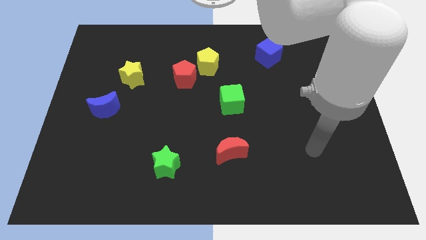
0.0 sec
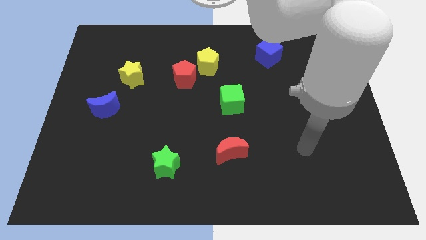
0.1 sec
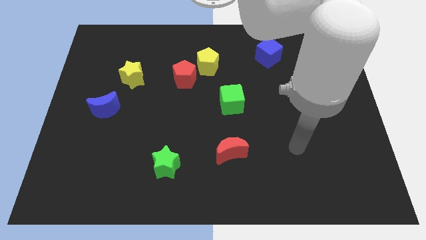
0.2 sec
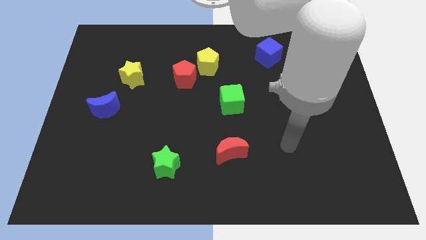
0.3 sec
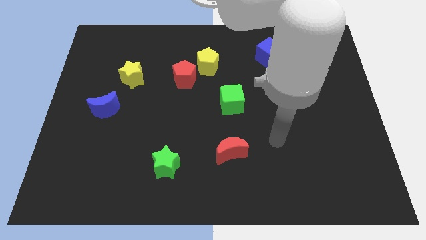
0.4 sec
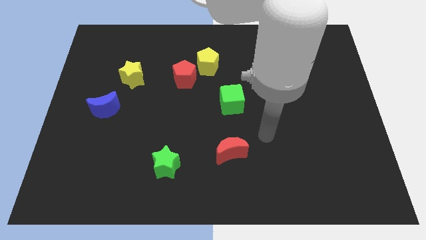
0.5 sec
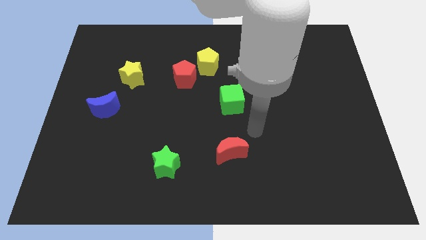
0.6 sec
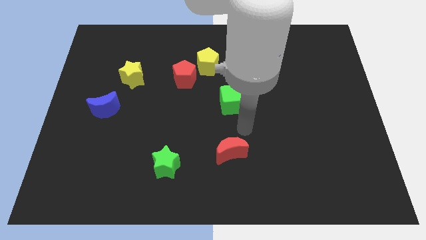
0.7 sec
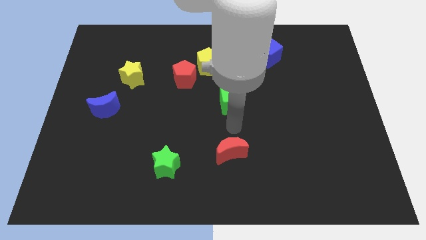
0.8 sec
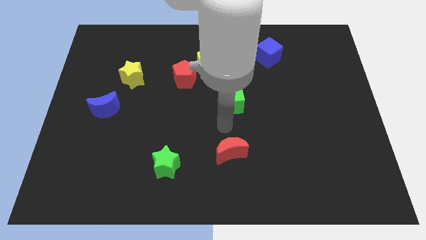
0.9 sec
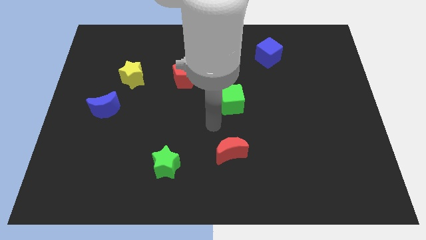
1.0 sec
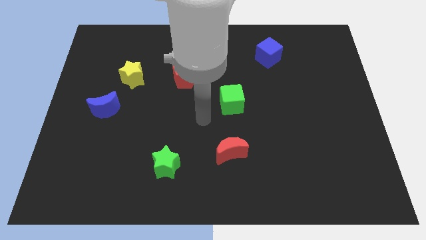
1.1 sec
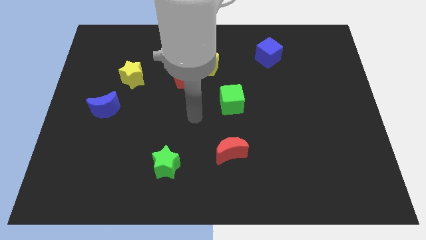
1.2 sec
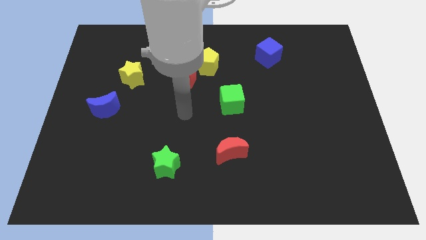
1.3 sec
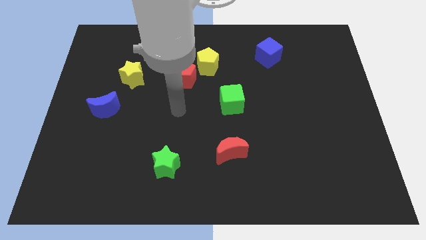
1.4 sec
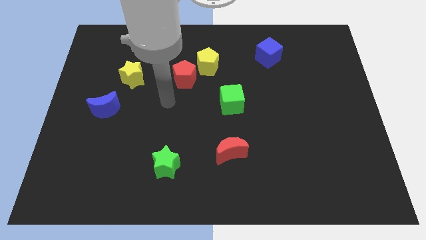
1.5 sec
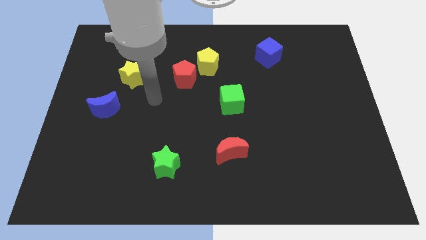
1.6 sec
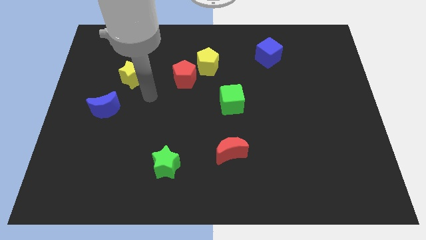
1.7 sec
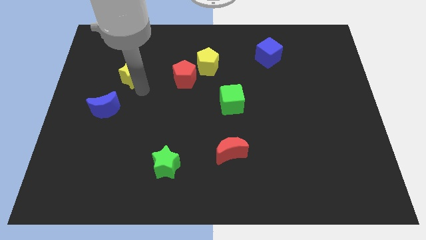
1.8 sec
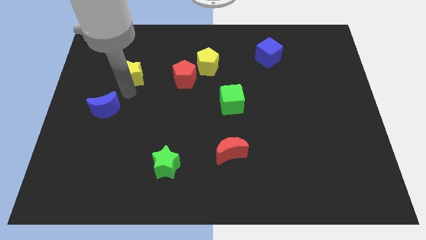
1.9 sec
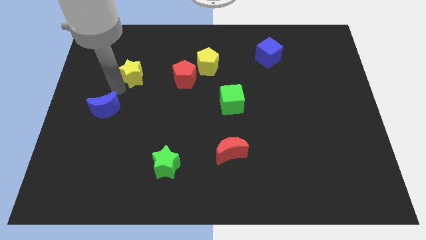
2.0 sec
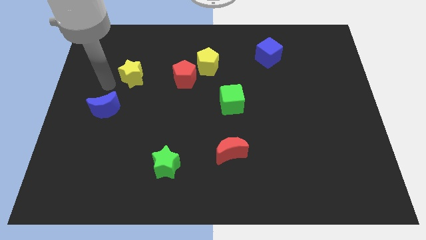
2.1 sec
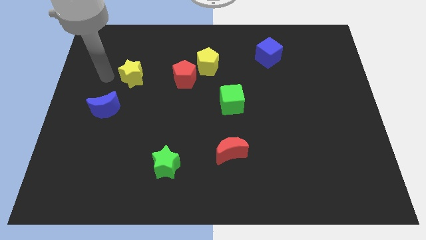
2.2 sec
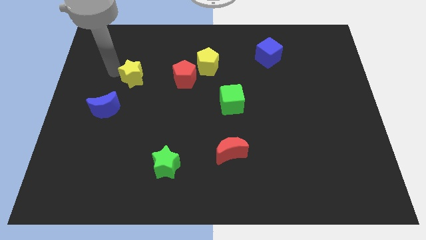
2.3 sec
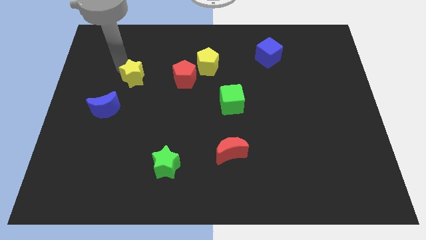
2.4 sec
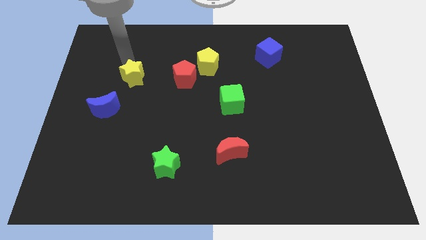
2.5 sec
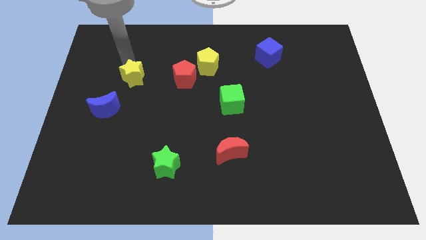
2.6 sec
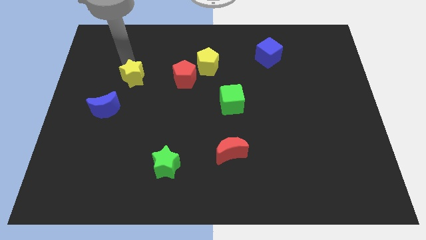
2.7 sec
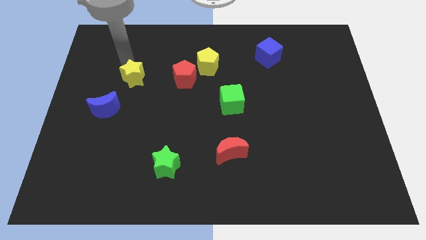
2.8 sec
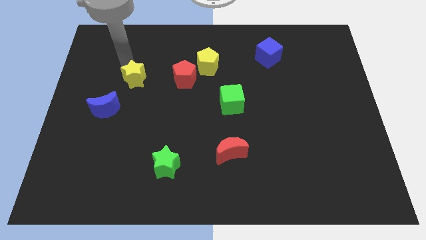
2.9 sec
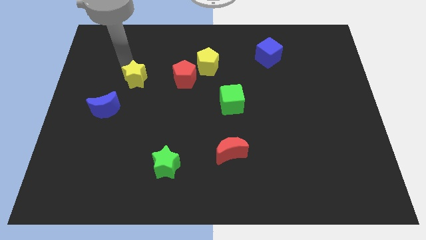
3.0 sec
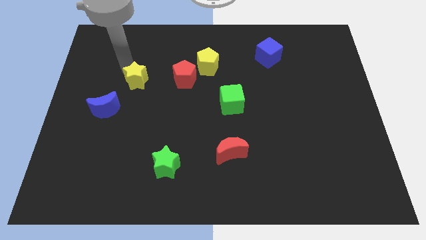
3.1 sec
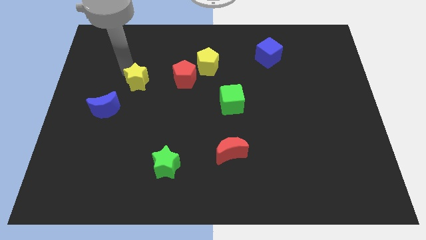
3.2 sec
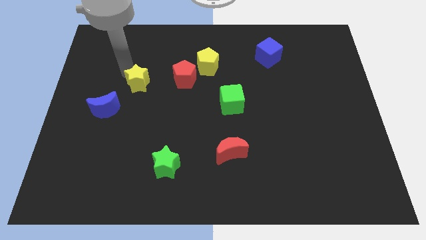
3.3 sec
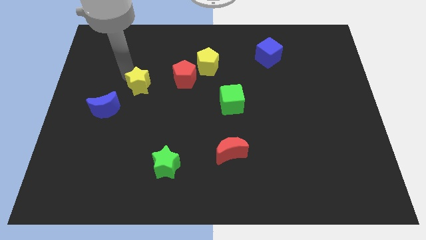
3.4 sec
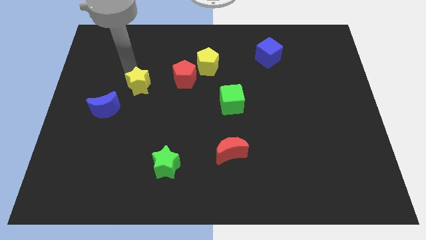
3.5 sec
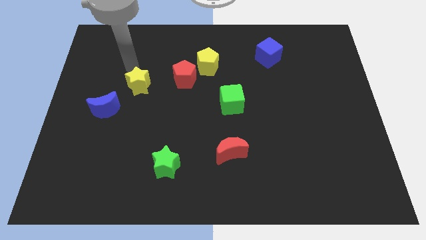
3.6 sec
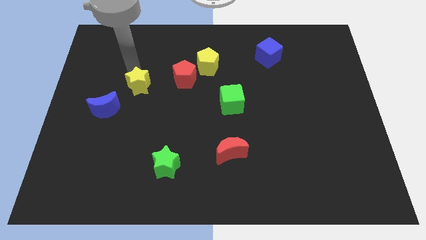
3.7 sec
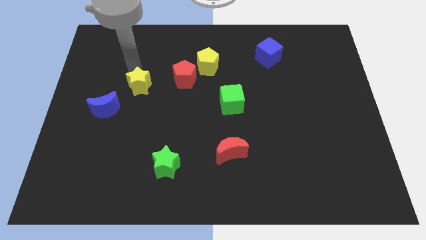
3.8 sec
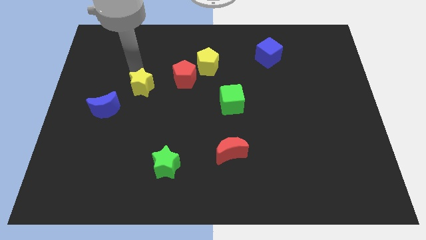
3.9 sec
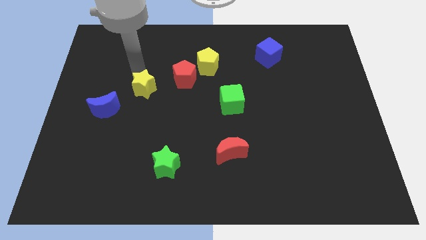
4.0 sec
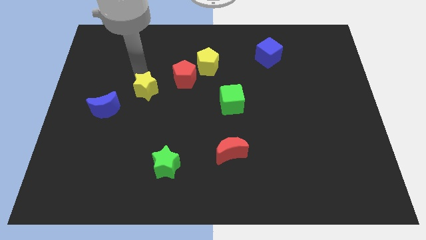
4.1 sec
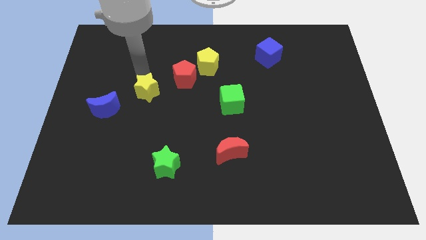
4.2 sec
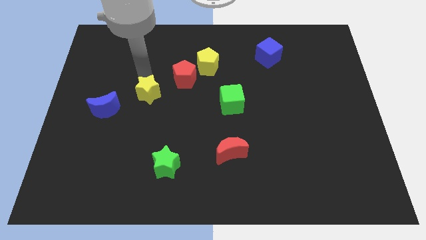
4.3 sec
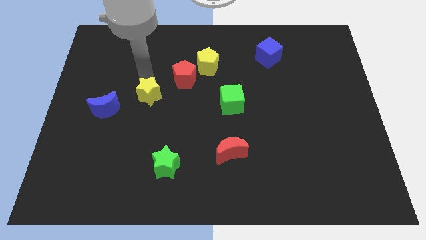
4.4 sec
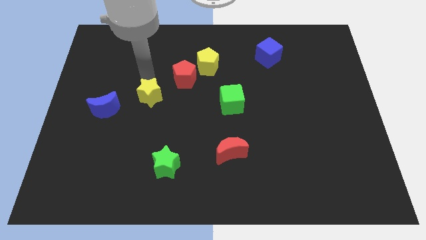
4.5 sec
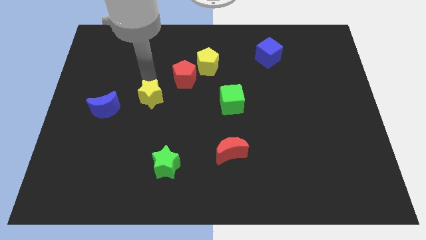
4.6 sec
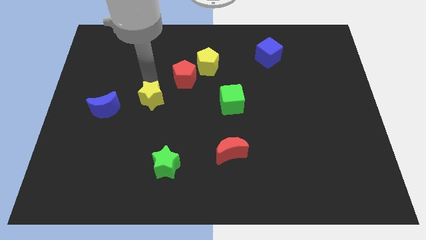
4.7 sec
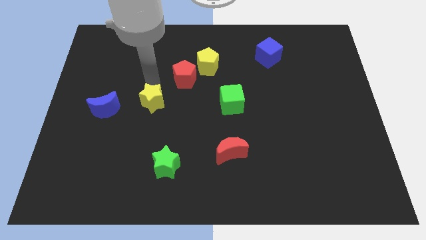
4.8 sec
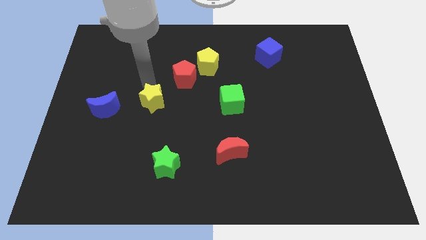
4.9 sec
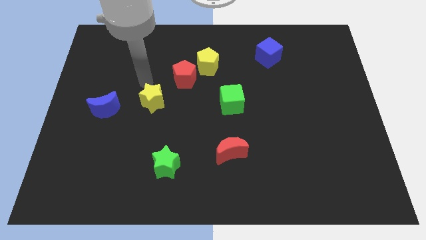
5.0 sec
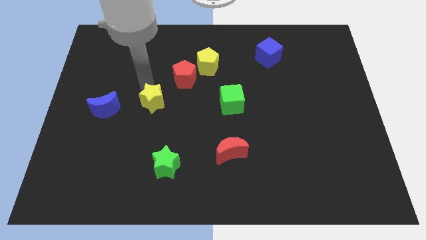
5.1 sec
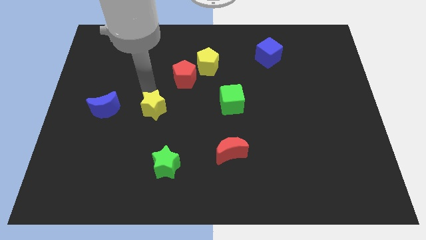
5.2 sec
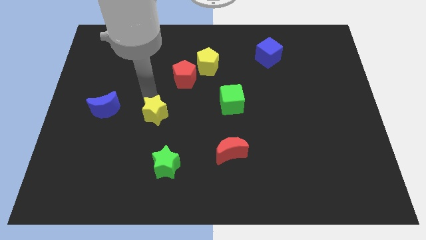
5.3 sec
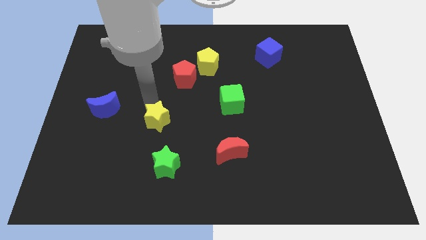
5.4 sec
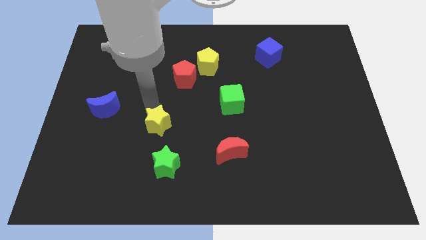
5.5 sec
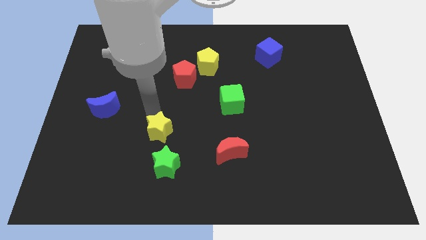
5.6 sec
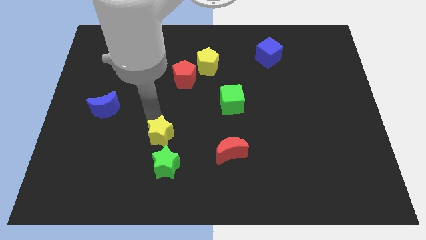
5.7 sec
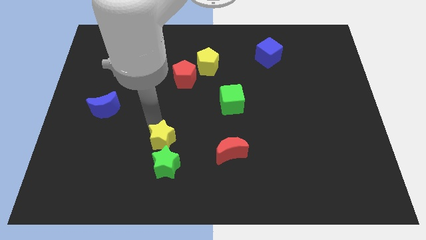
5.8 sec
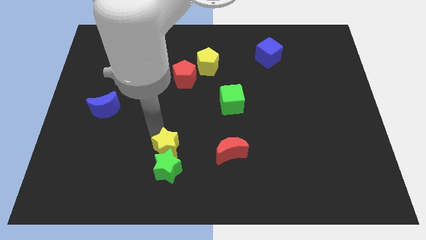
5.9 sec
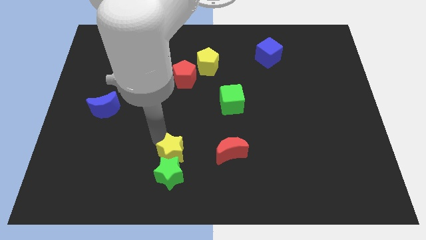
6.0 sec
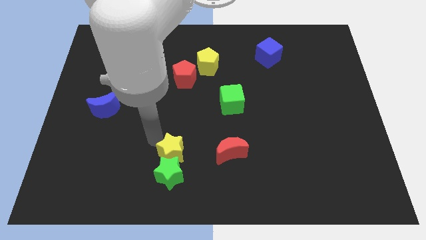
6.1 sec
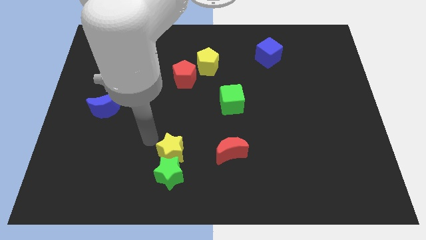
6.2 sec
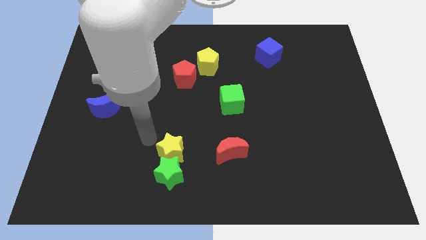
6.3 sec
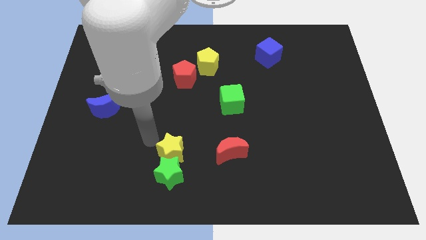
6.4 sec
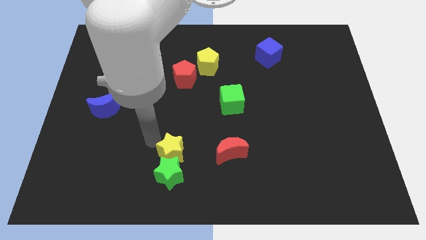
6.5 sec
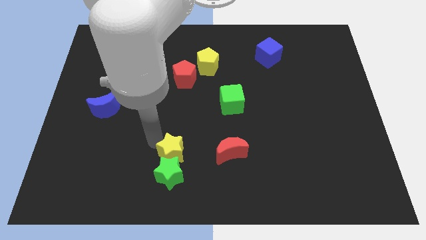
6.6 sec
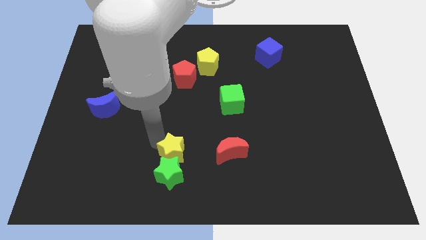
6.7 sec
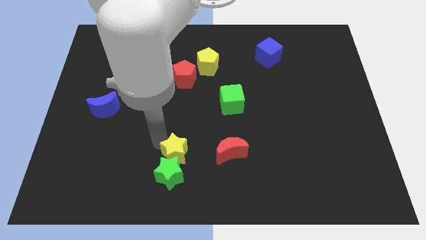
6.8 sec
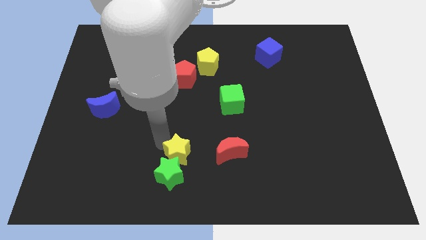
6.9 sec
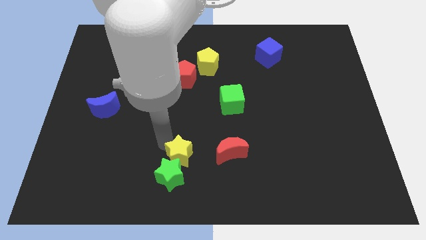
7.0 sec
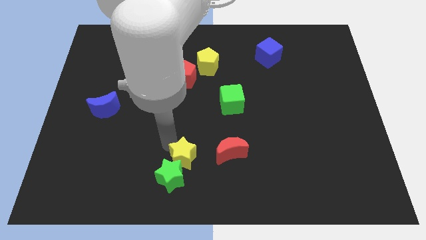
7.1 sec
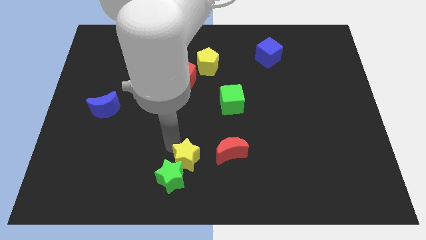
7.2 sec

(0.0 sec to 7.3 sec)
push the yellow star to the bottom side
